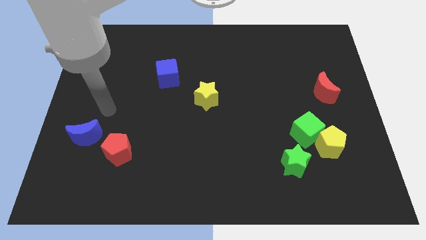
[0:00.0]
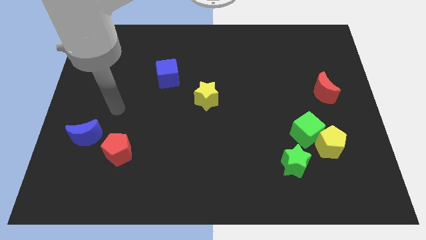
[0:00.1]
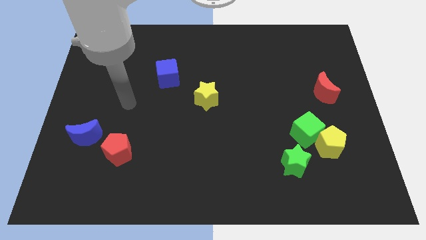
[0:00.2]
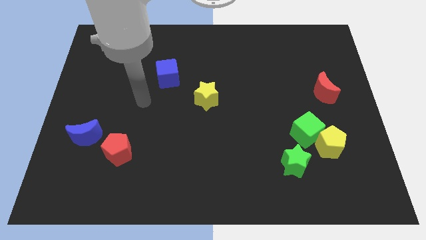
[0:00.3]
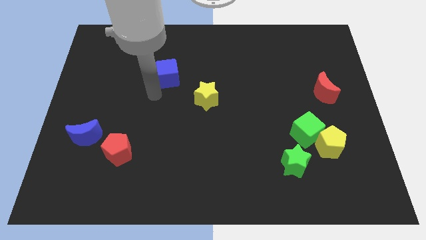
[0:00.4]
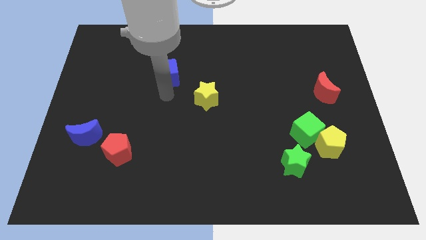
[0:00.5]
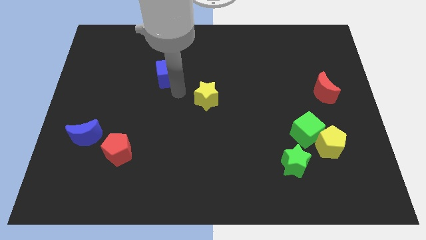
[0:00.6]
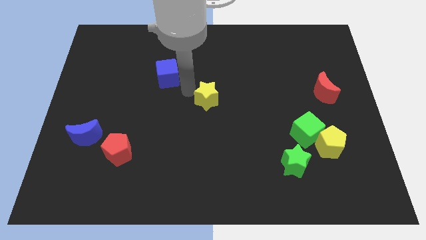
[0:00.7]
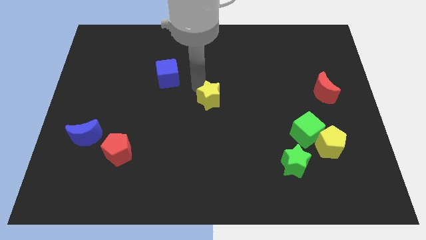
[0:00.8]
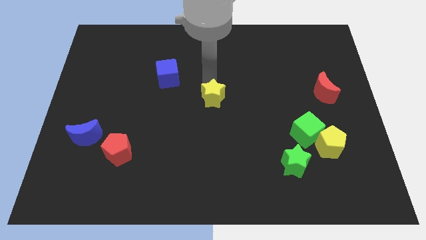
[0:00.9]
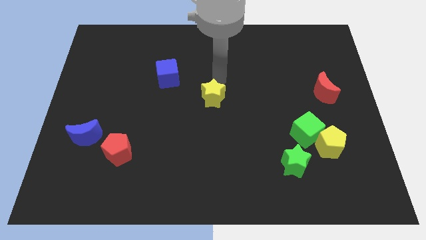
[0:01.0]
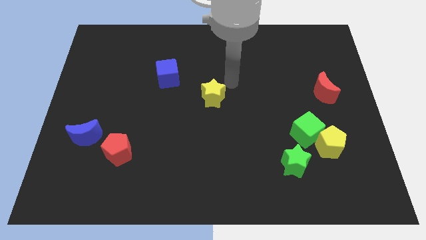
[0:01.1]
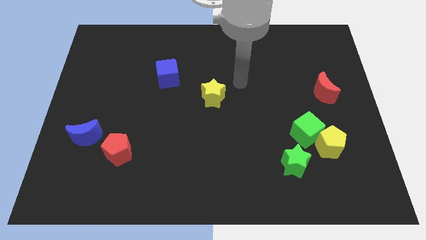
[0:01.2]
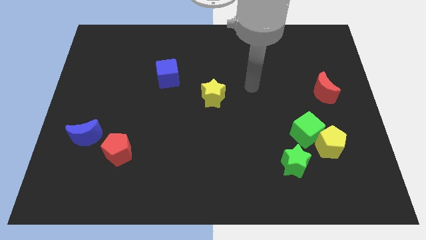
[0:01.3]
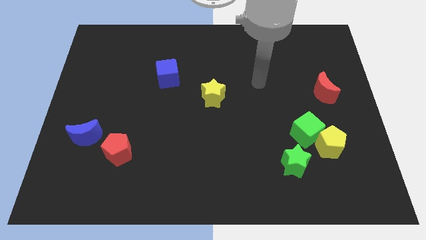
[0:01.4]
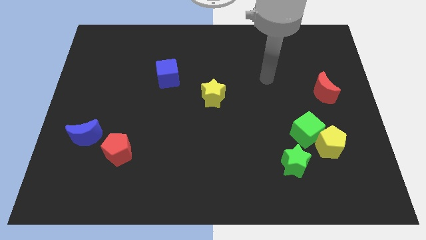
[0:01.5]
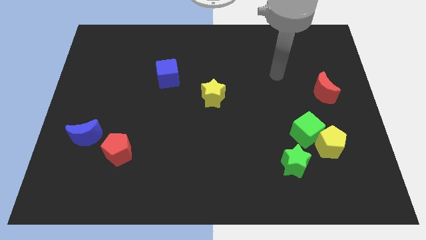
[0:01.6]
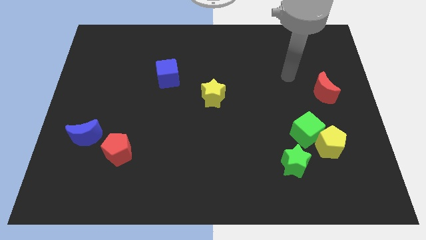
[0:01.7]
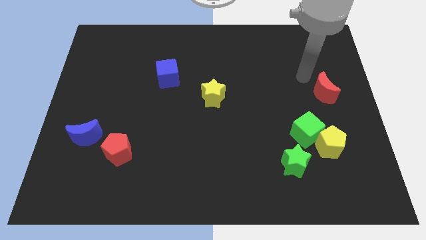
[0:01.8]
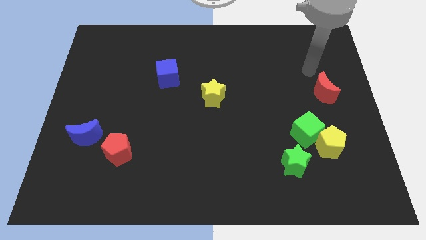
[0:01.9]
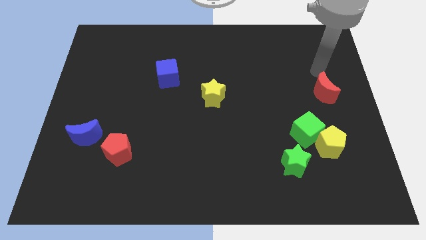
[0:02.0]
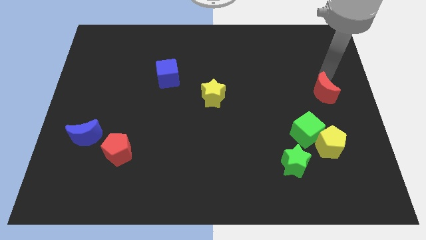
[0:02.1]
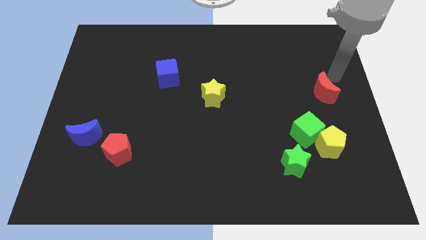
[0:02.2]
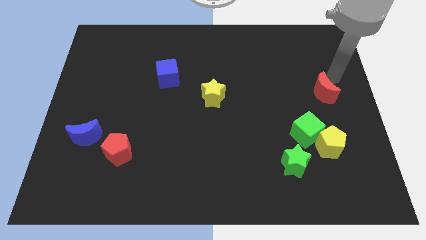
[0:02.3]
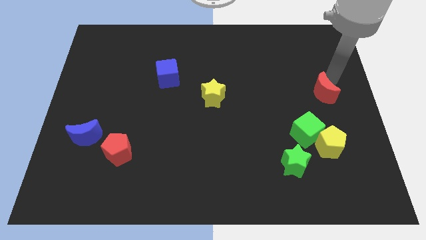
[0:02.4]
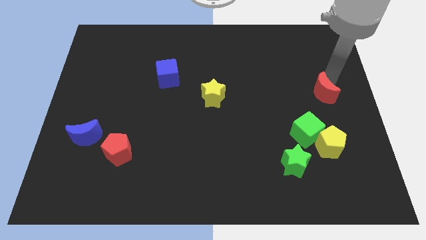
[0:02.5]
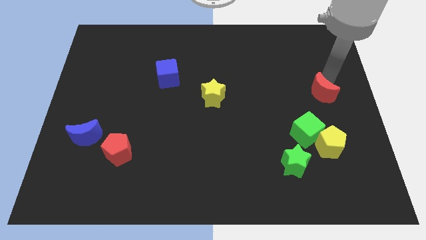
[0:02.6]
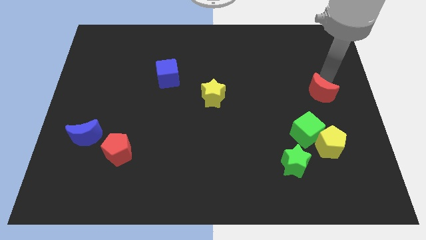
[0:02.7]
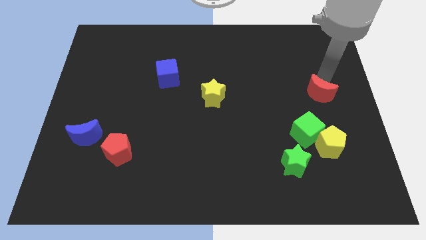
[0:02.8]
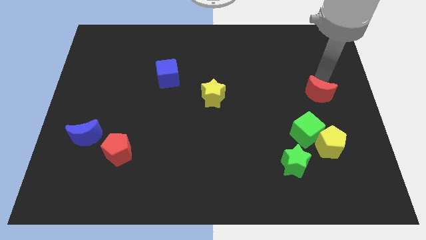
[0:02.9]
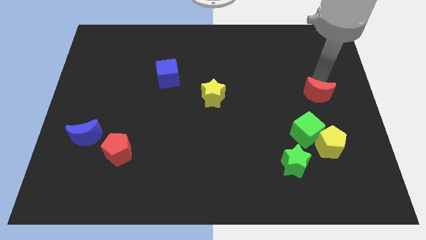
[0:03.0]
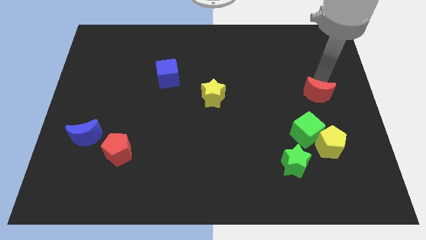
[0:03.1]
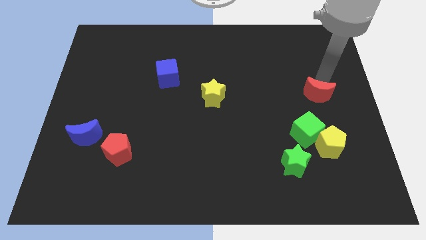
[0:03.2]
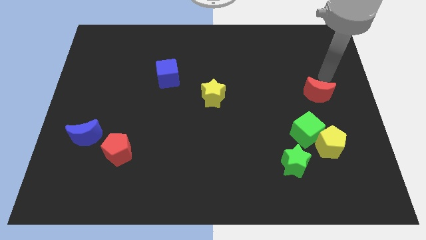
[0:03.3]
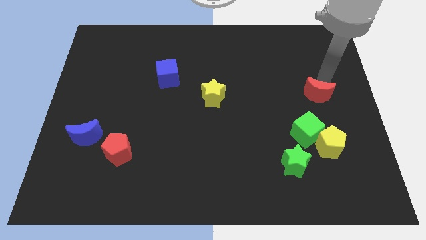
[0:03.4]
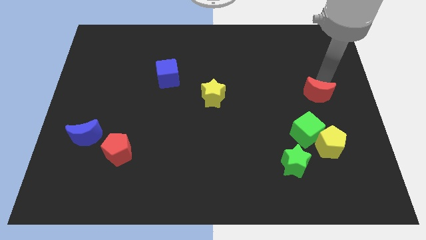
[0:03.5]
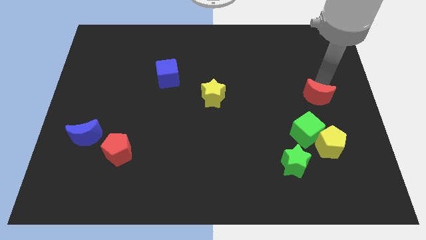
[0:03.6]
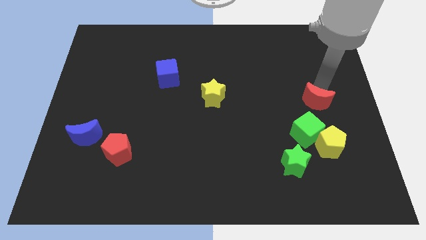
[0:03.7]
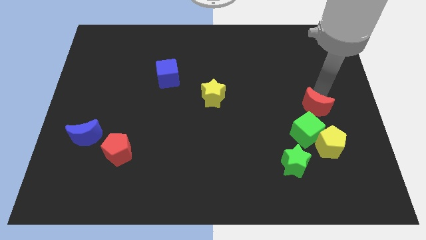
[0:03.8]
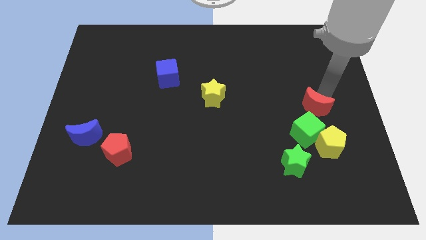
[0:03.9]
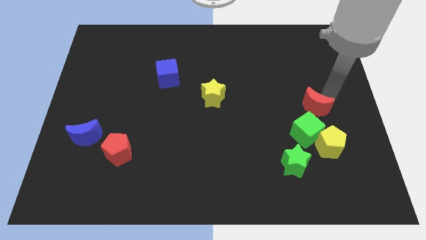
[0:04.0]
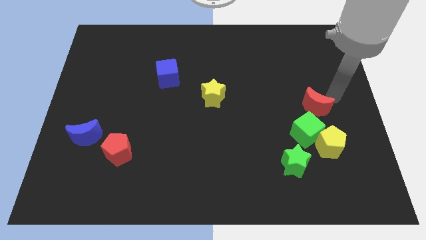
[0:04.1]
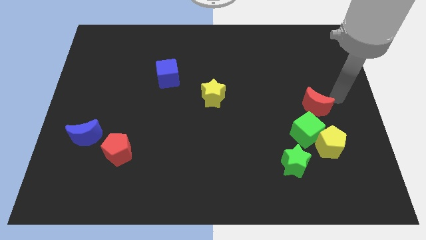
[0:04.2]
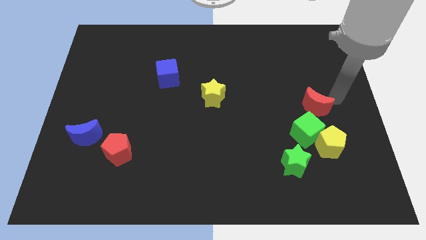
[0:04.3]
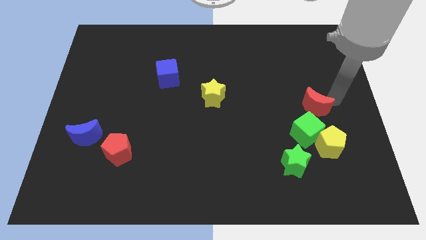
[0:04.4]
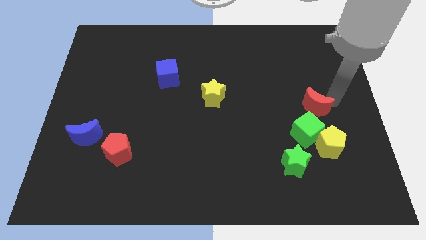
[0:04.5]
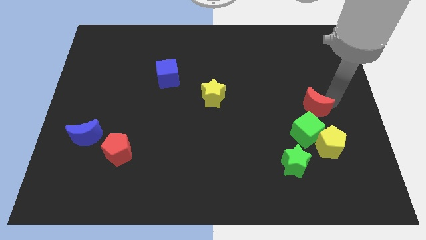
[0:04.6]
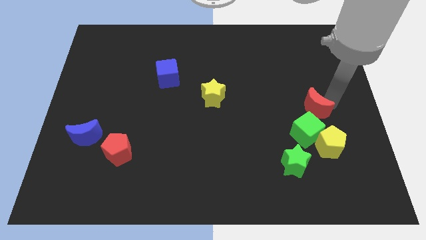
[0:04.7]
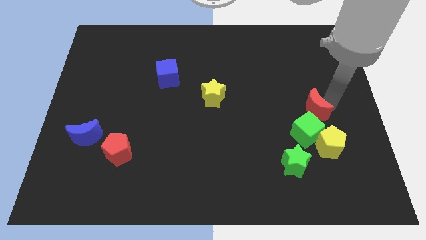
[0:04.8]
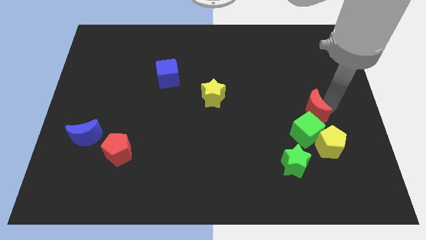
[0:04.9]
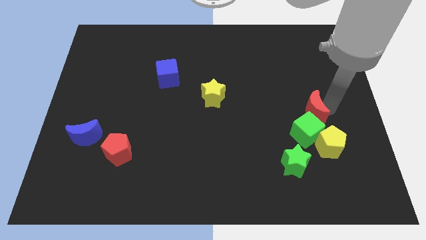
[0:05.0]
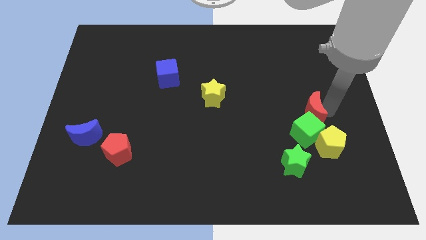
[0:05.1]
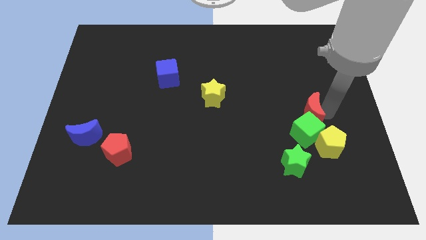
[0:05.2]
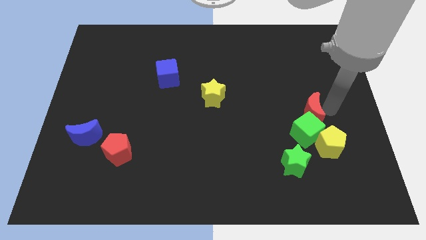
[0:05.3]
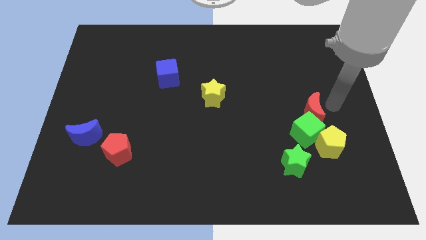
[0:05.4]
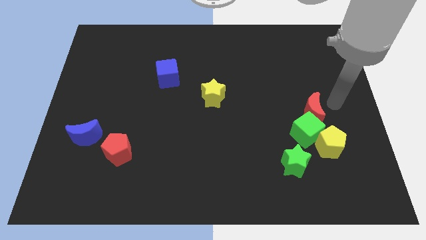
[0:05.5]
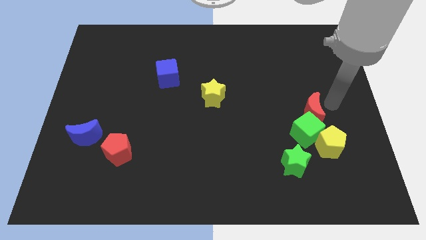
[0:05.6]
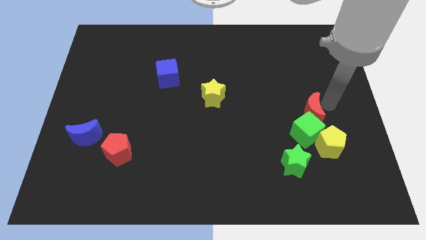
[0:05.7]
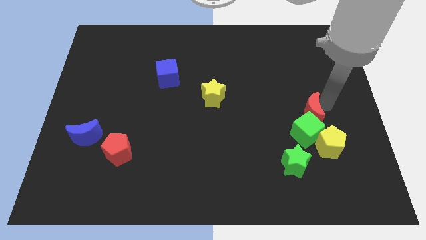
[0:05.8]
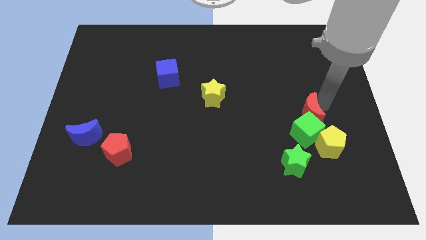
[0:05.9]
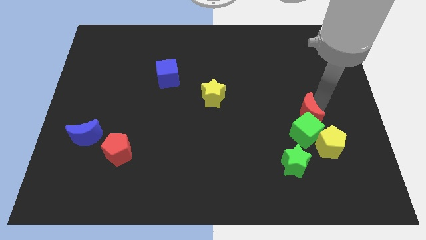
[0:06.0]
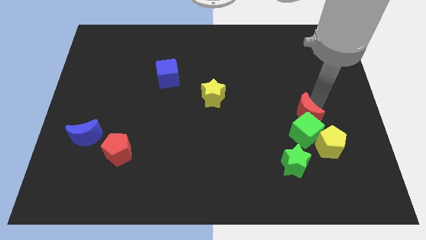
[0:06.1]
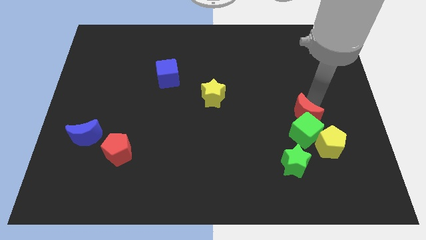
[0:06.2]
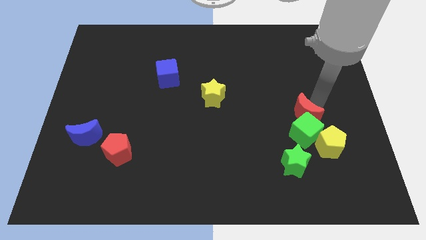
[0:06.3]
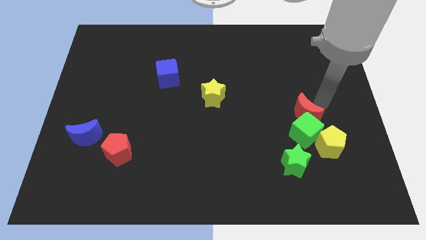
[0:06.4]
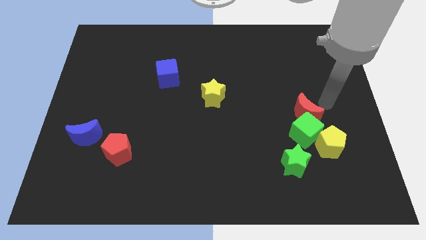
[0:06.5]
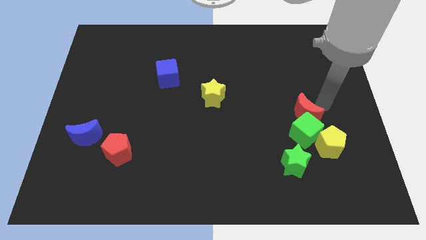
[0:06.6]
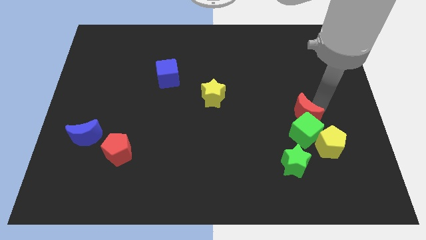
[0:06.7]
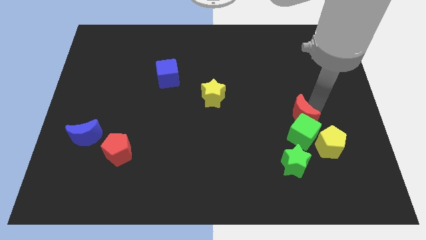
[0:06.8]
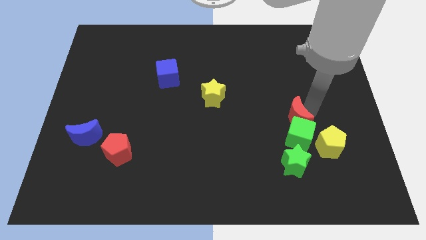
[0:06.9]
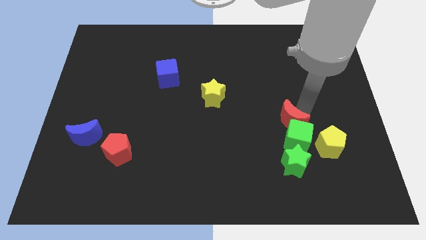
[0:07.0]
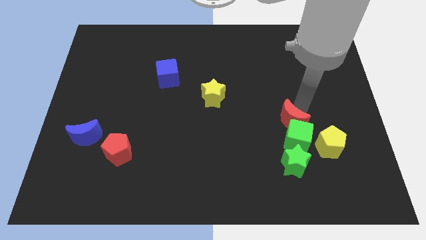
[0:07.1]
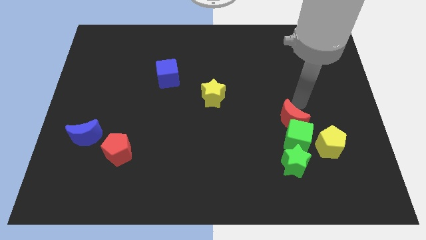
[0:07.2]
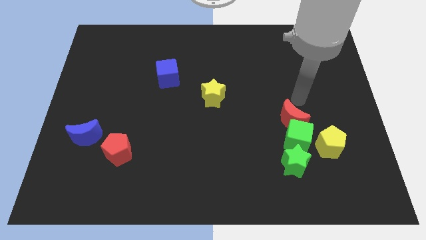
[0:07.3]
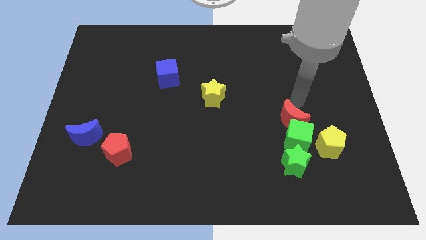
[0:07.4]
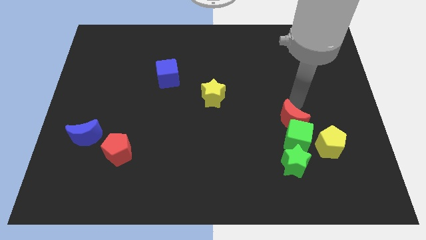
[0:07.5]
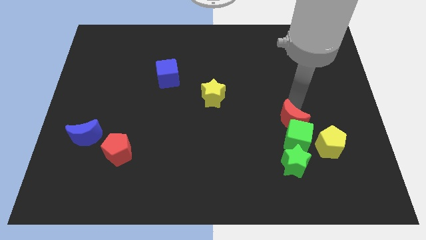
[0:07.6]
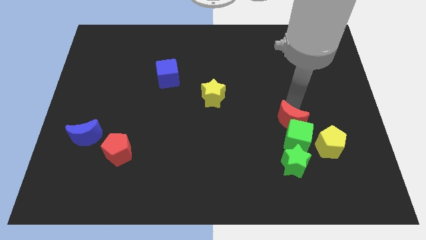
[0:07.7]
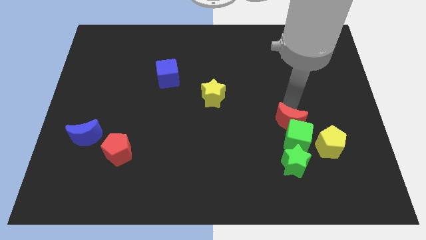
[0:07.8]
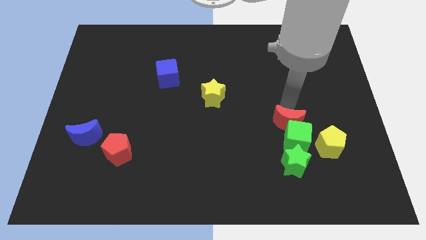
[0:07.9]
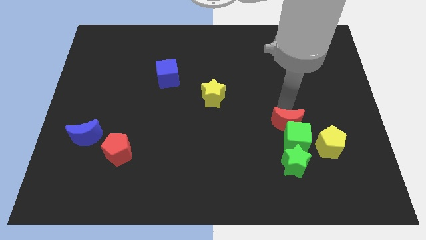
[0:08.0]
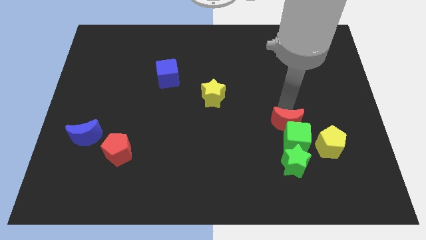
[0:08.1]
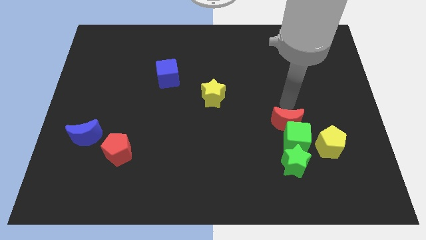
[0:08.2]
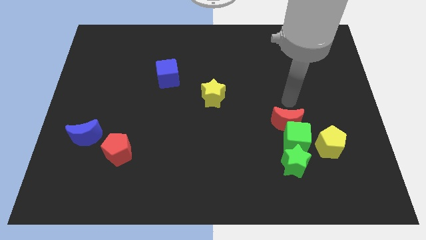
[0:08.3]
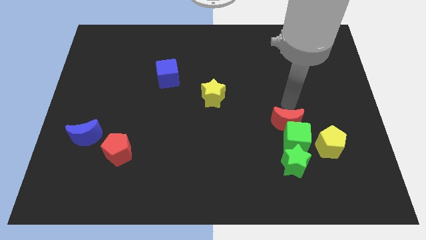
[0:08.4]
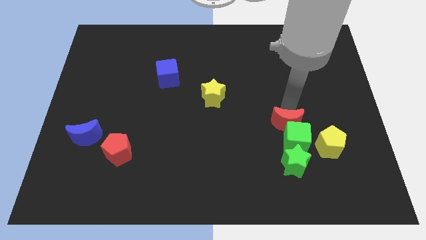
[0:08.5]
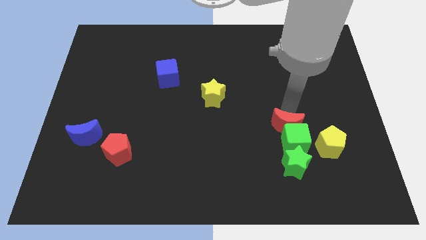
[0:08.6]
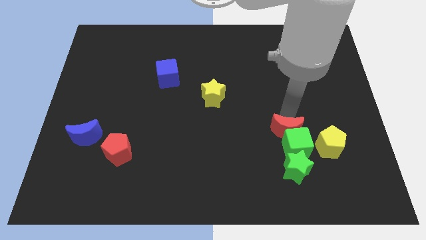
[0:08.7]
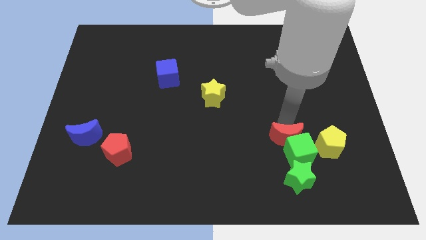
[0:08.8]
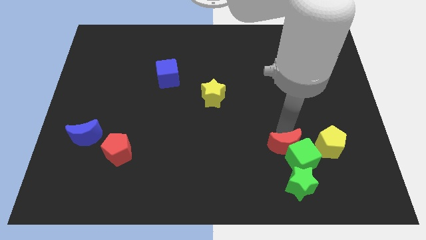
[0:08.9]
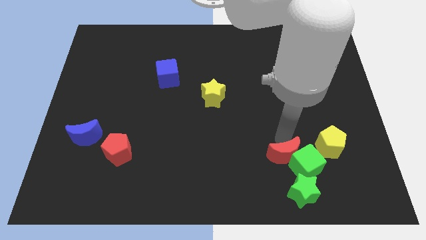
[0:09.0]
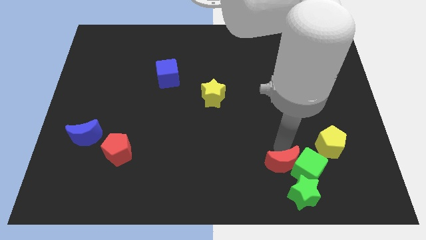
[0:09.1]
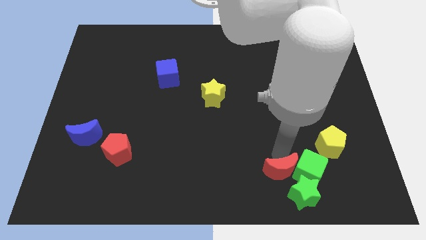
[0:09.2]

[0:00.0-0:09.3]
move the red moon close to the green star
